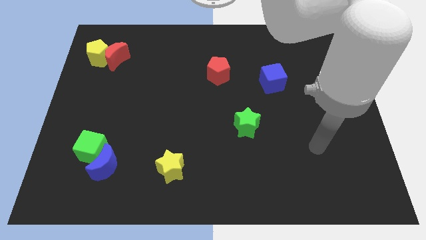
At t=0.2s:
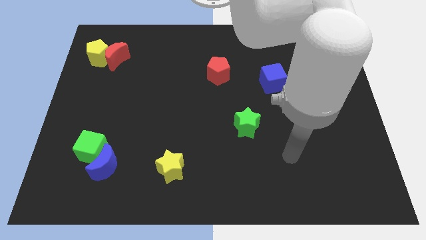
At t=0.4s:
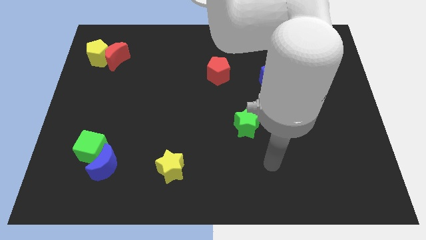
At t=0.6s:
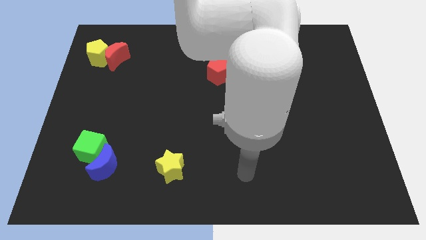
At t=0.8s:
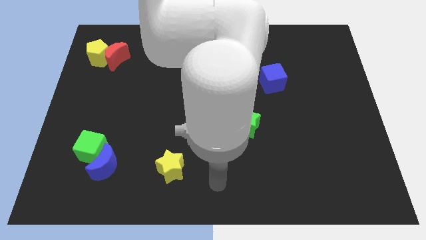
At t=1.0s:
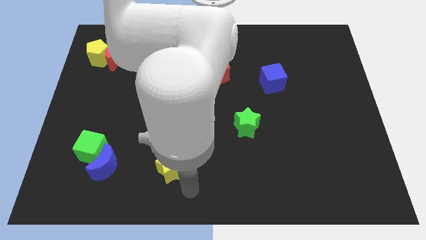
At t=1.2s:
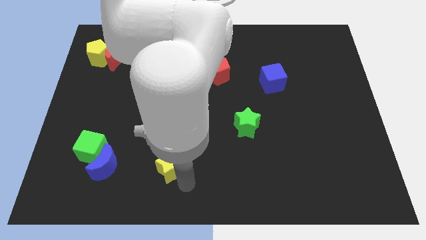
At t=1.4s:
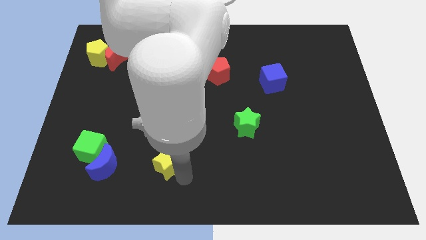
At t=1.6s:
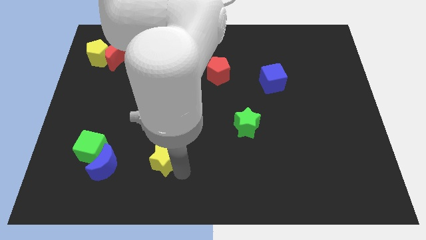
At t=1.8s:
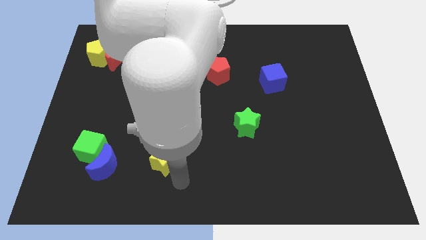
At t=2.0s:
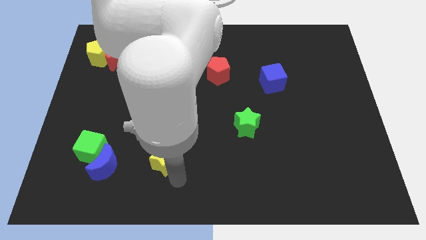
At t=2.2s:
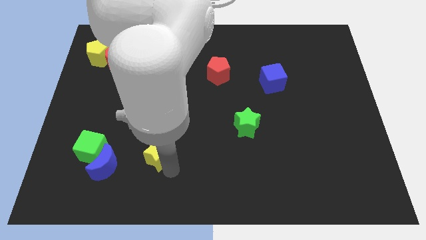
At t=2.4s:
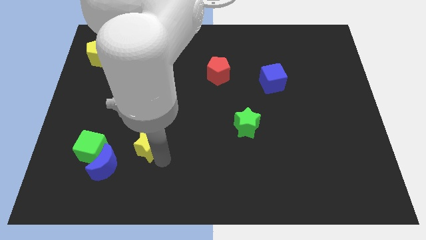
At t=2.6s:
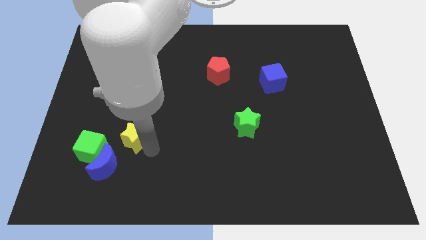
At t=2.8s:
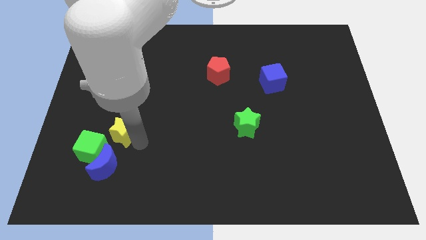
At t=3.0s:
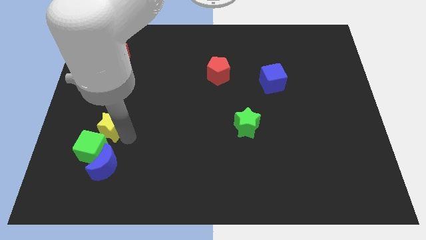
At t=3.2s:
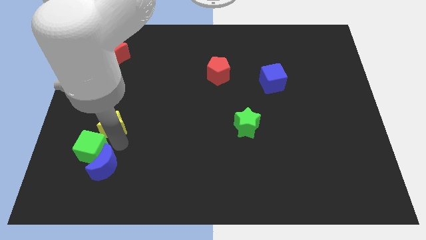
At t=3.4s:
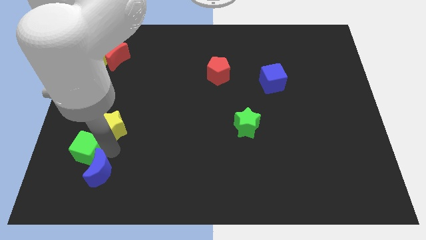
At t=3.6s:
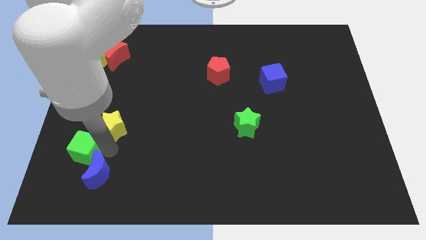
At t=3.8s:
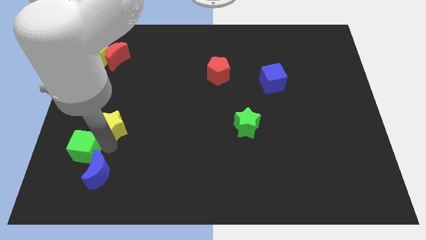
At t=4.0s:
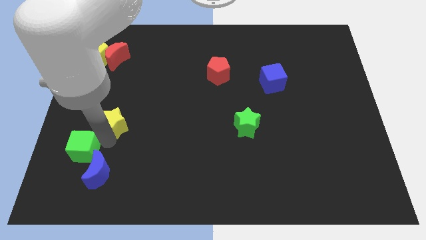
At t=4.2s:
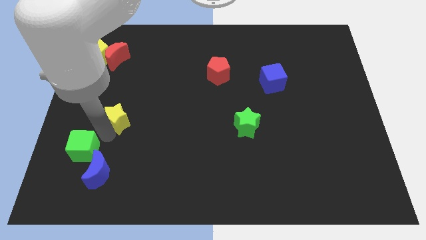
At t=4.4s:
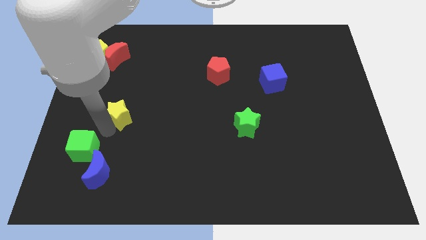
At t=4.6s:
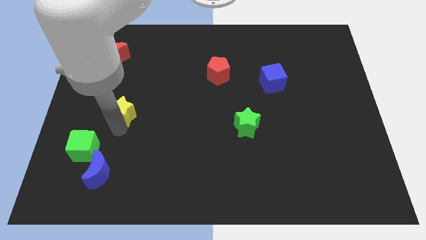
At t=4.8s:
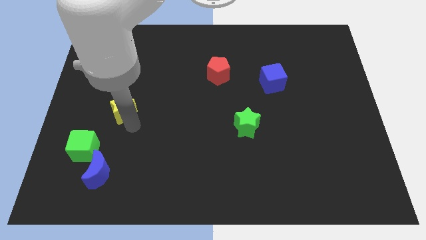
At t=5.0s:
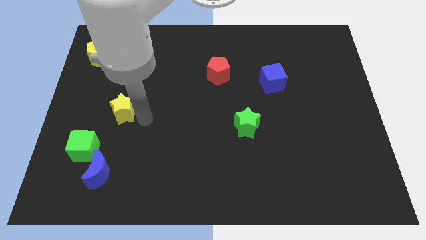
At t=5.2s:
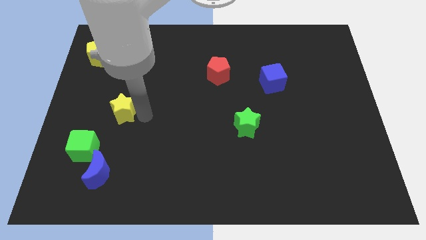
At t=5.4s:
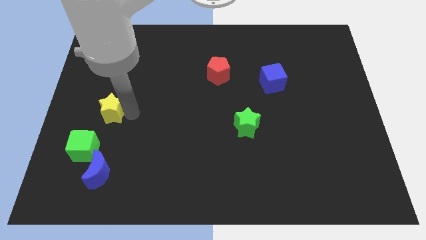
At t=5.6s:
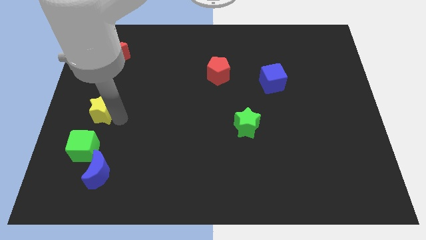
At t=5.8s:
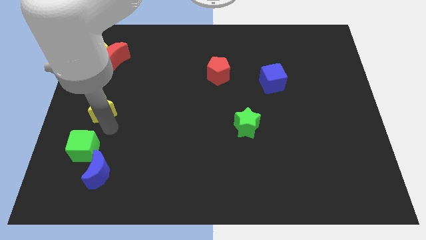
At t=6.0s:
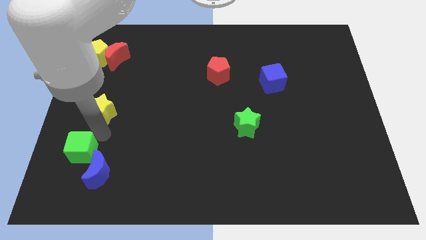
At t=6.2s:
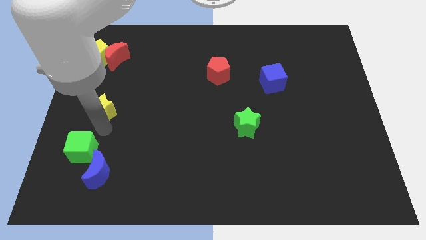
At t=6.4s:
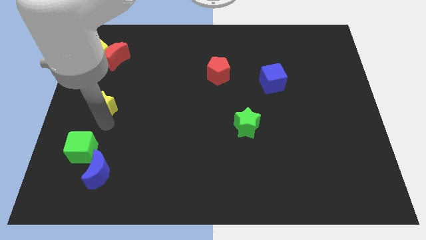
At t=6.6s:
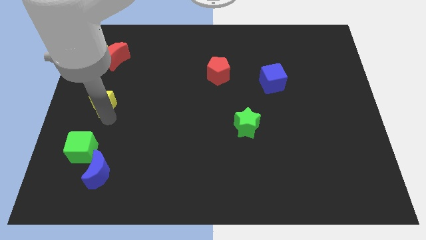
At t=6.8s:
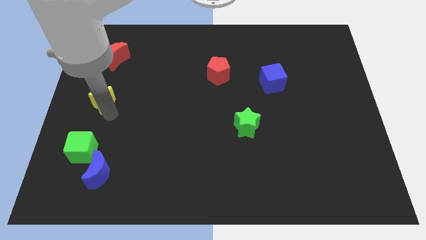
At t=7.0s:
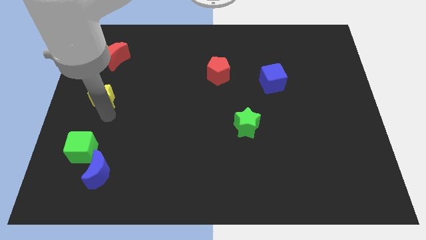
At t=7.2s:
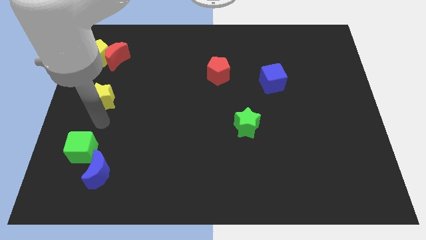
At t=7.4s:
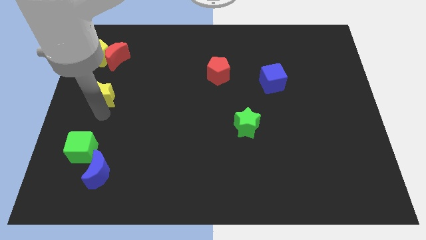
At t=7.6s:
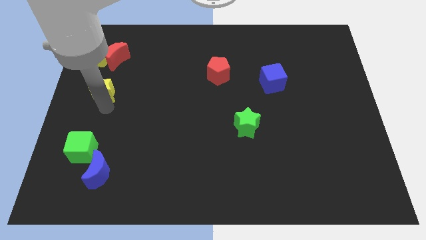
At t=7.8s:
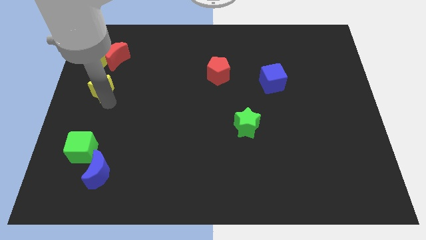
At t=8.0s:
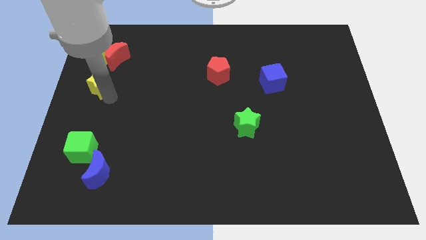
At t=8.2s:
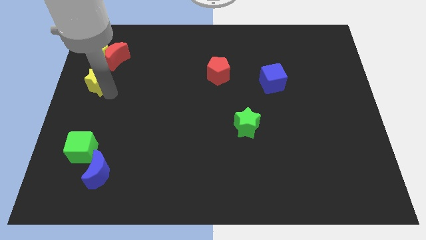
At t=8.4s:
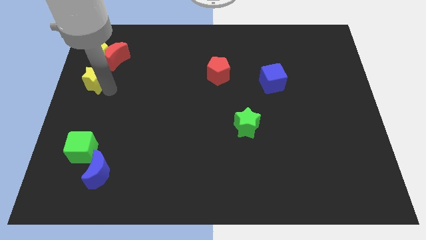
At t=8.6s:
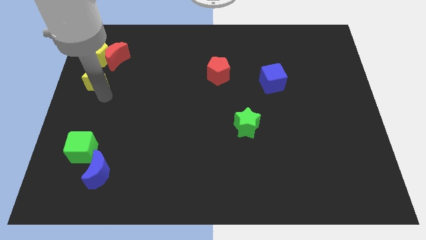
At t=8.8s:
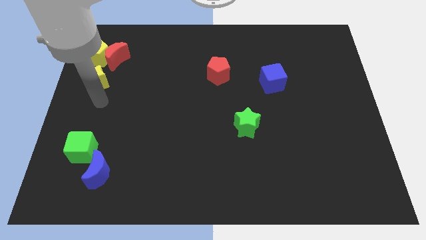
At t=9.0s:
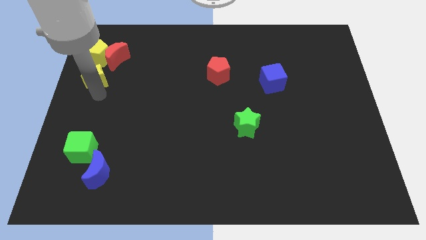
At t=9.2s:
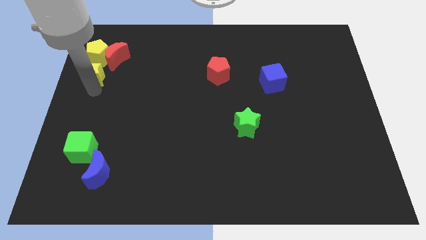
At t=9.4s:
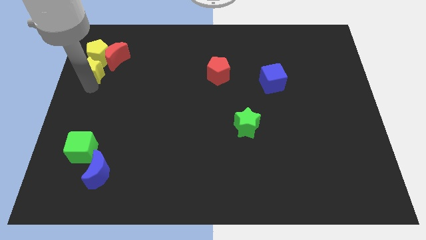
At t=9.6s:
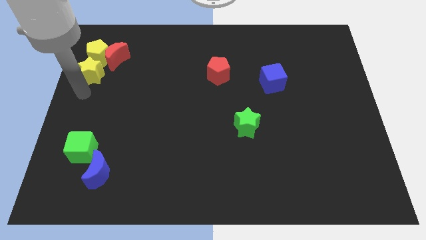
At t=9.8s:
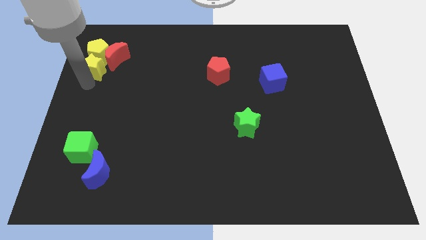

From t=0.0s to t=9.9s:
push the yellow star to the yellow pentagon

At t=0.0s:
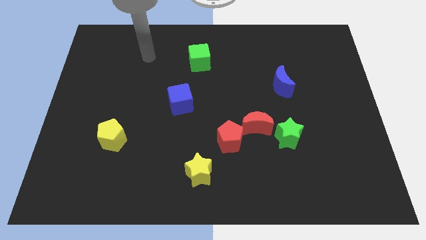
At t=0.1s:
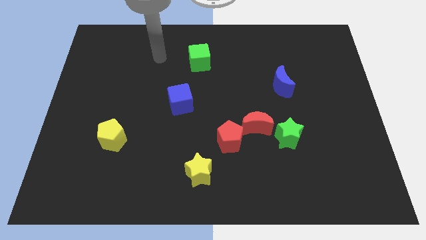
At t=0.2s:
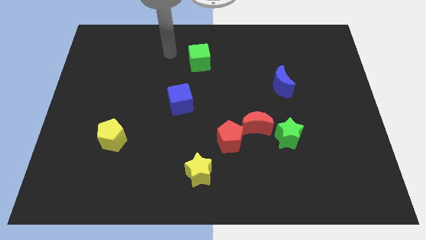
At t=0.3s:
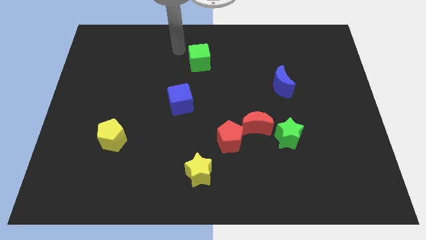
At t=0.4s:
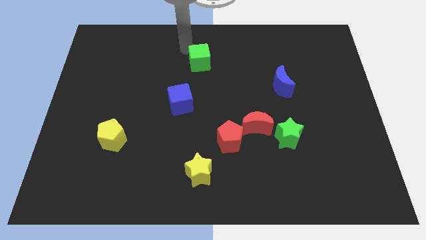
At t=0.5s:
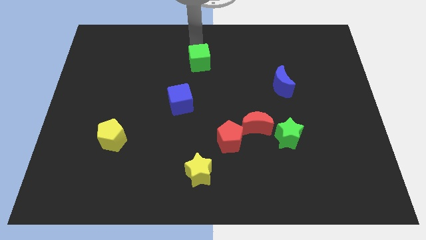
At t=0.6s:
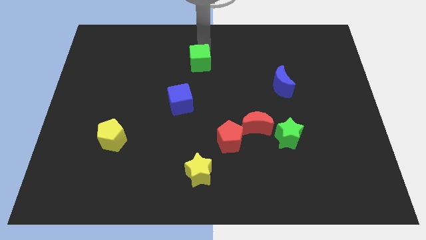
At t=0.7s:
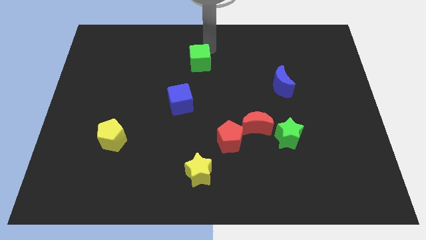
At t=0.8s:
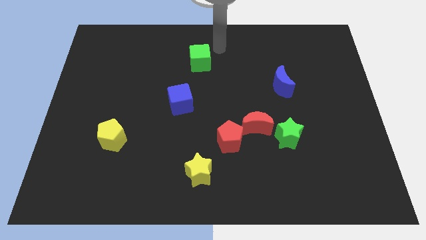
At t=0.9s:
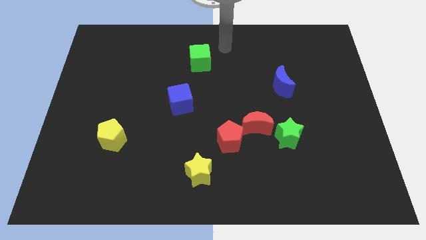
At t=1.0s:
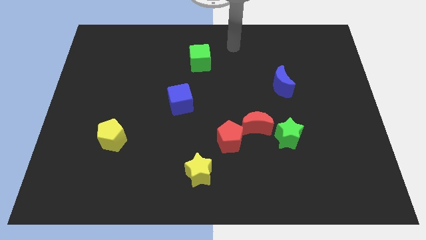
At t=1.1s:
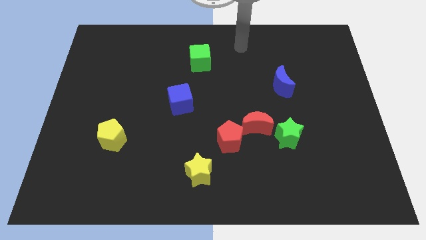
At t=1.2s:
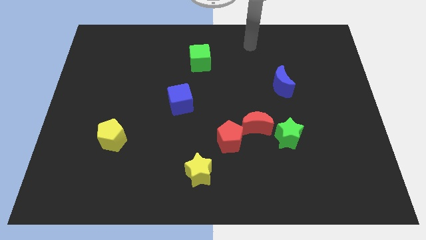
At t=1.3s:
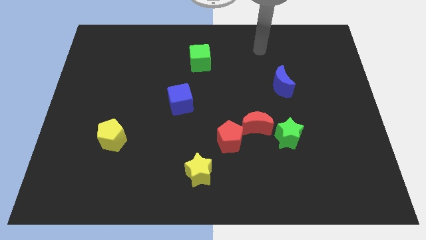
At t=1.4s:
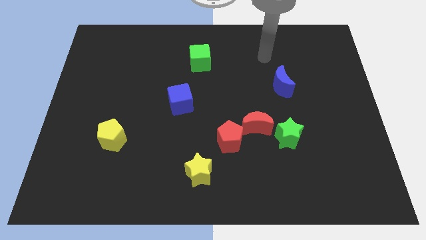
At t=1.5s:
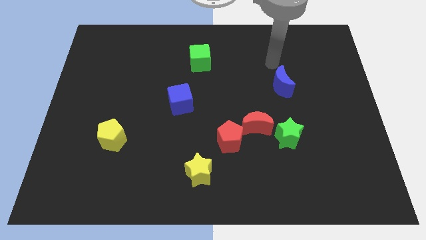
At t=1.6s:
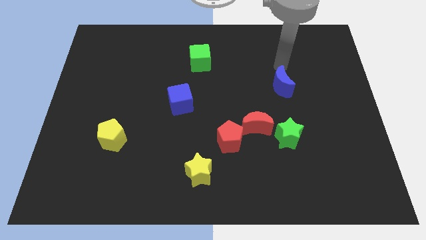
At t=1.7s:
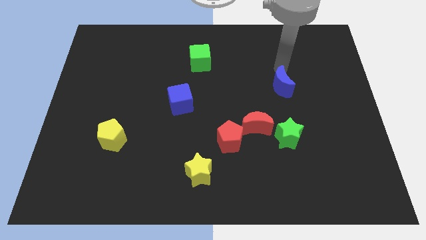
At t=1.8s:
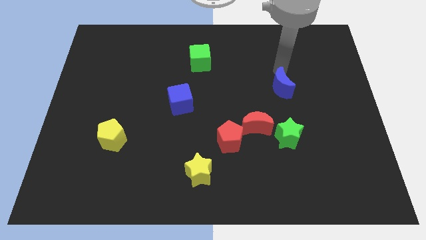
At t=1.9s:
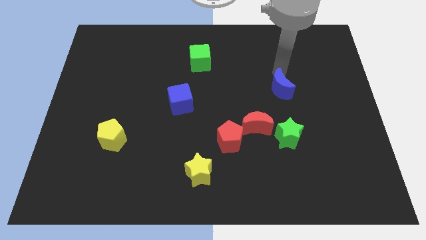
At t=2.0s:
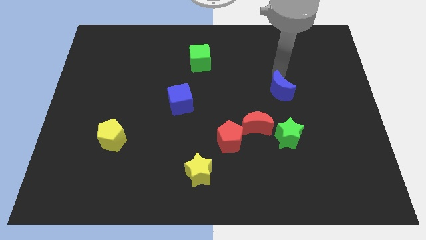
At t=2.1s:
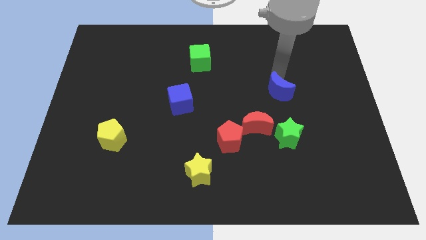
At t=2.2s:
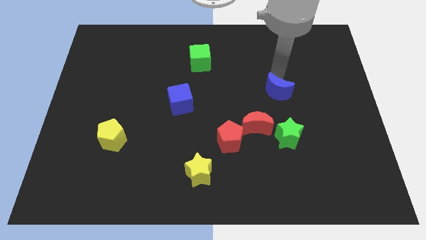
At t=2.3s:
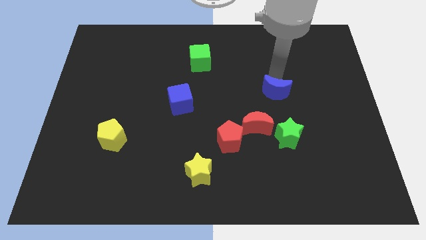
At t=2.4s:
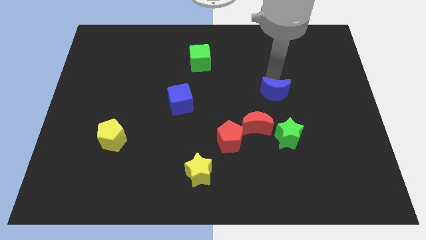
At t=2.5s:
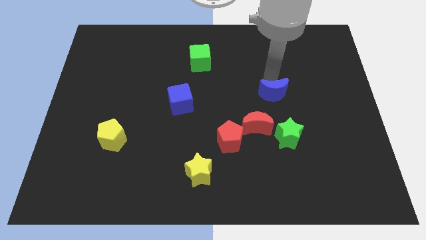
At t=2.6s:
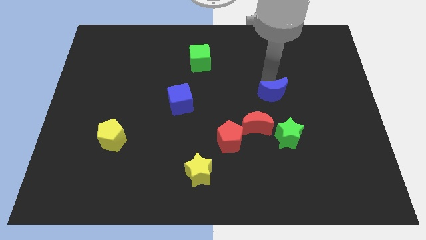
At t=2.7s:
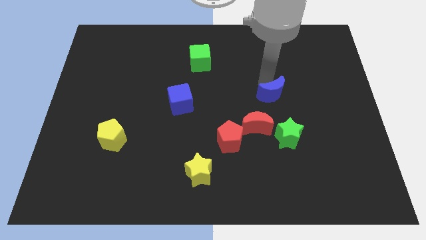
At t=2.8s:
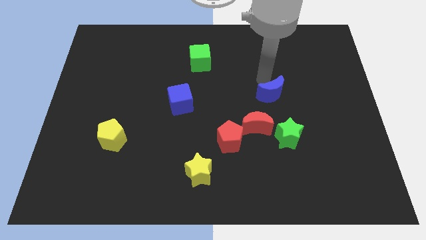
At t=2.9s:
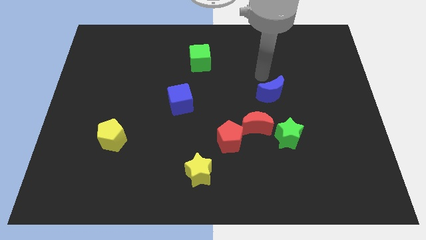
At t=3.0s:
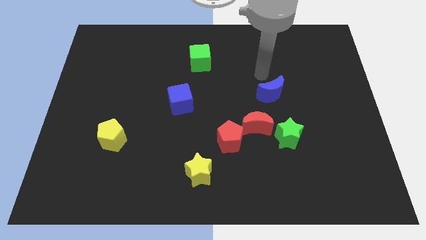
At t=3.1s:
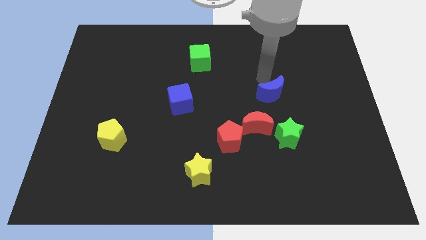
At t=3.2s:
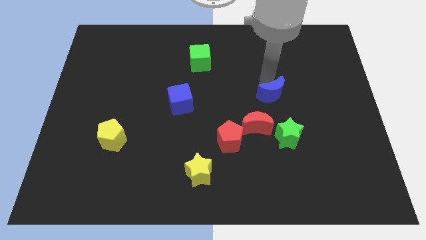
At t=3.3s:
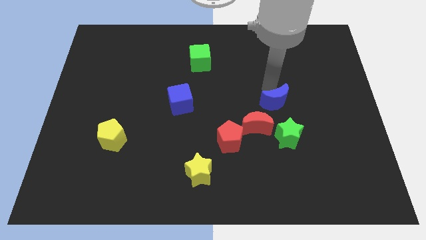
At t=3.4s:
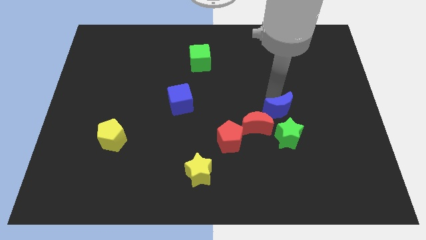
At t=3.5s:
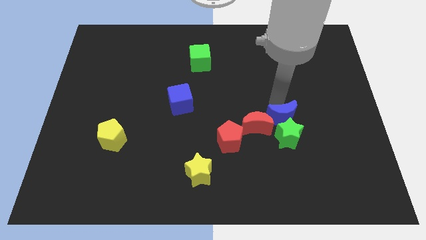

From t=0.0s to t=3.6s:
push the blue moon towards the green star

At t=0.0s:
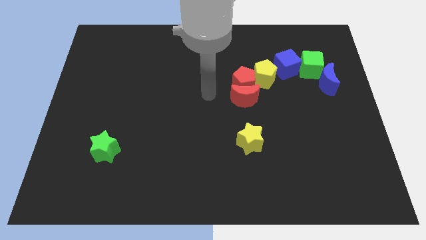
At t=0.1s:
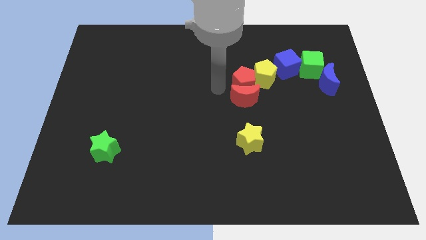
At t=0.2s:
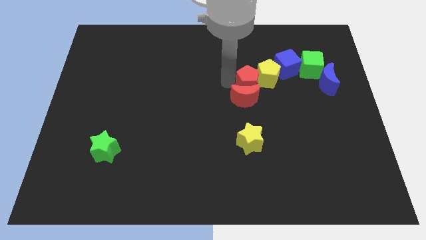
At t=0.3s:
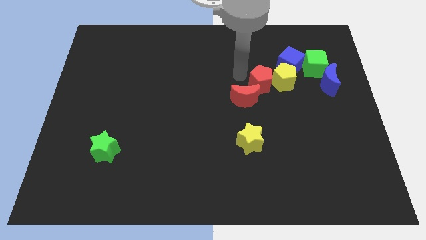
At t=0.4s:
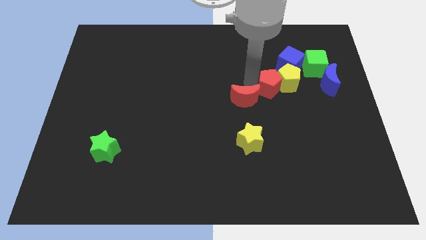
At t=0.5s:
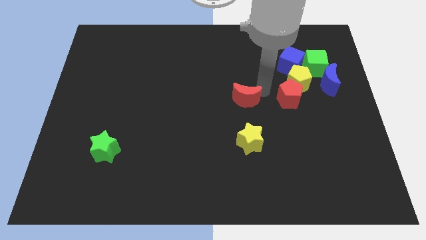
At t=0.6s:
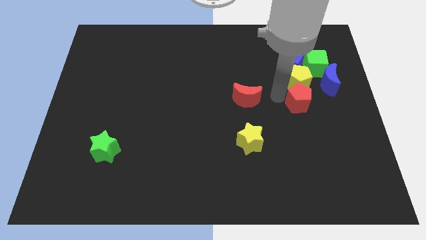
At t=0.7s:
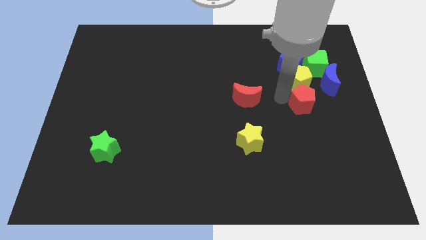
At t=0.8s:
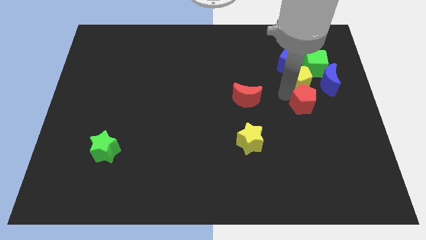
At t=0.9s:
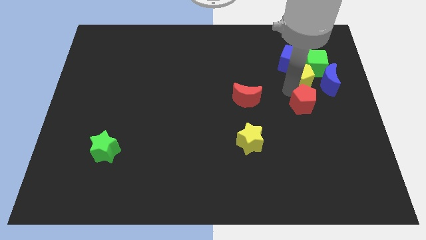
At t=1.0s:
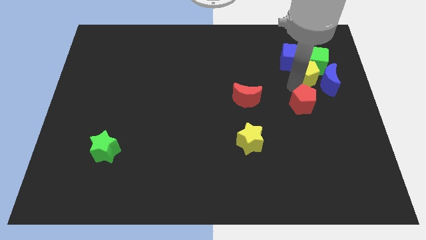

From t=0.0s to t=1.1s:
slide the yellow pentagon to the green cube
